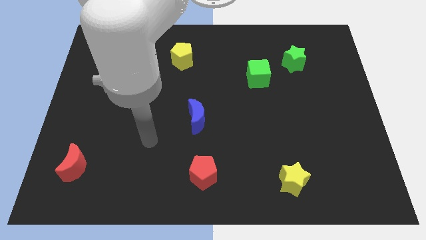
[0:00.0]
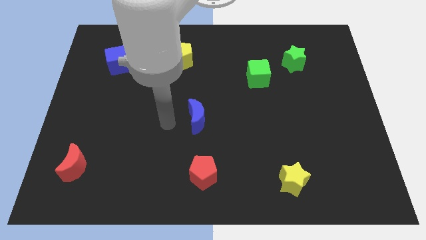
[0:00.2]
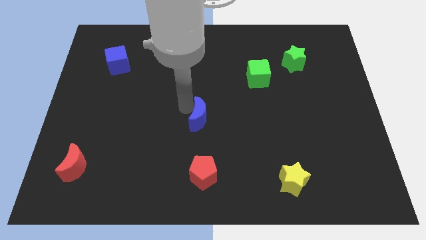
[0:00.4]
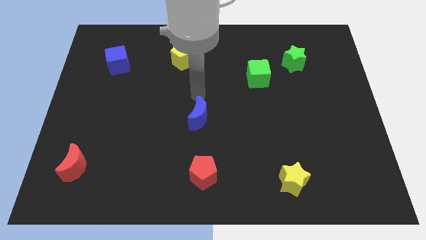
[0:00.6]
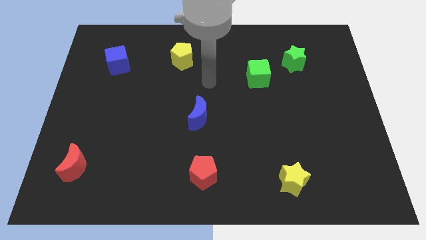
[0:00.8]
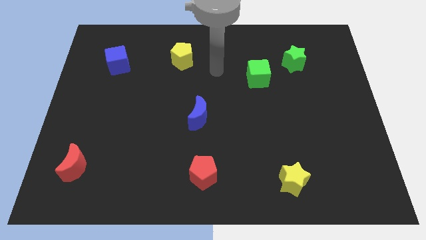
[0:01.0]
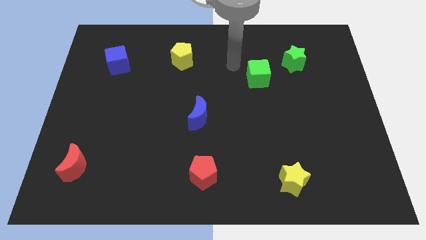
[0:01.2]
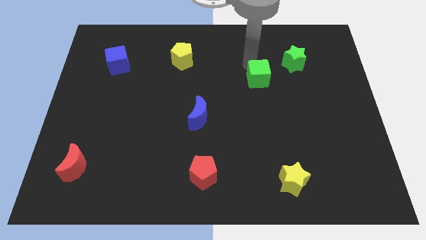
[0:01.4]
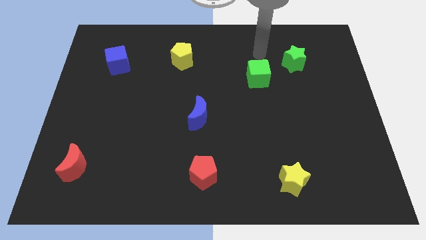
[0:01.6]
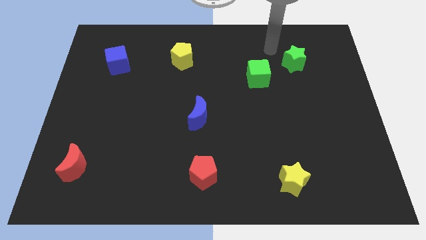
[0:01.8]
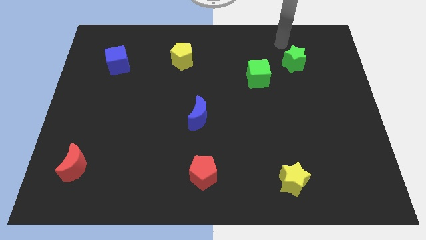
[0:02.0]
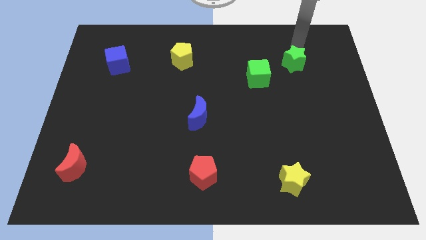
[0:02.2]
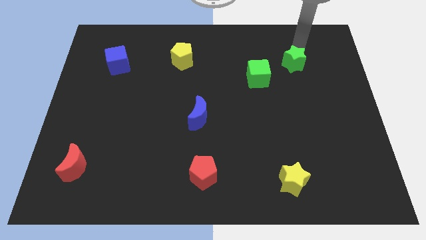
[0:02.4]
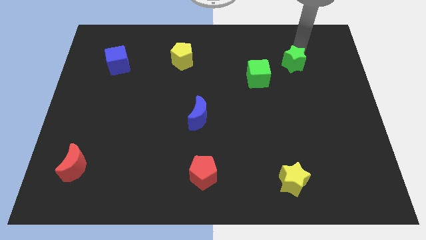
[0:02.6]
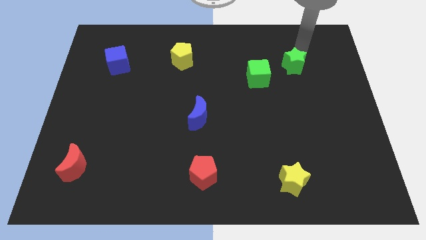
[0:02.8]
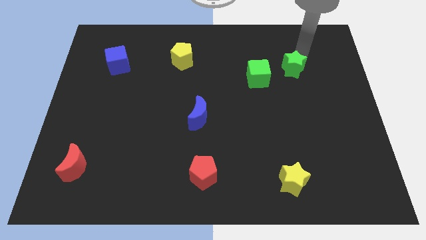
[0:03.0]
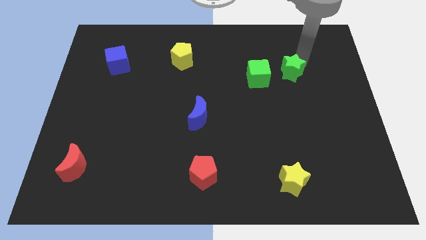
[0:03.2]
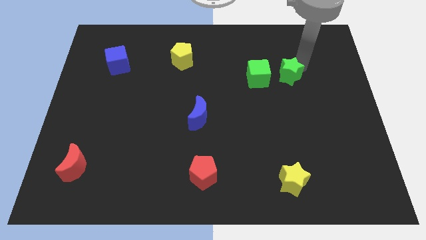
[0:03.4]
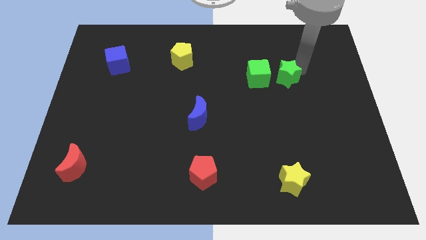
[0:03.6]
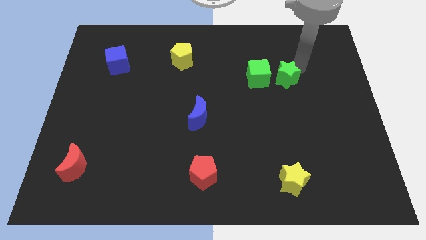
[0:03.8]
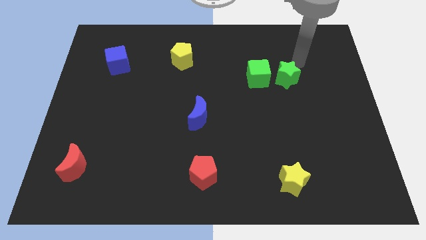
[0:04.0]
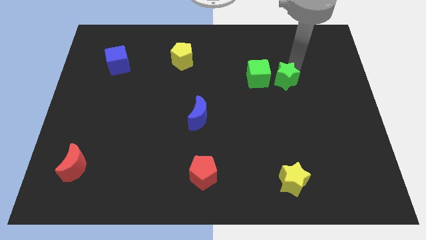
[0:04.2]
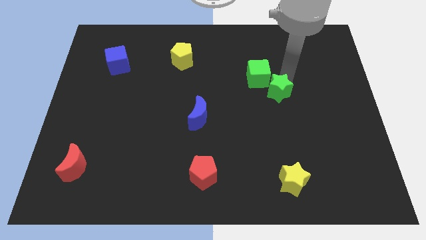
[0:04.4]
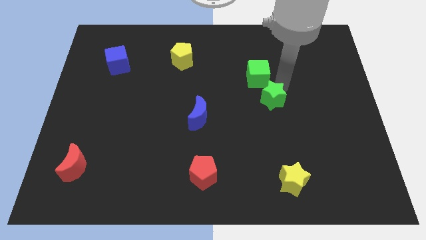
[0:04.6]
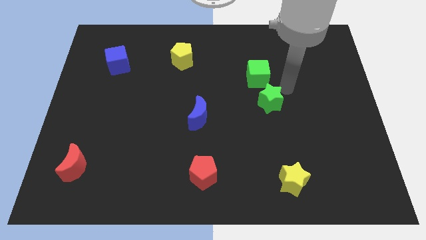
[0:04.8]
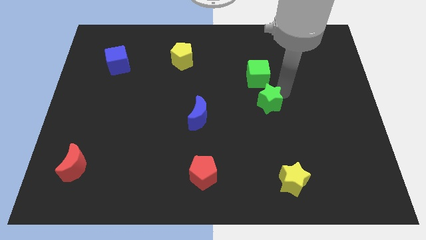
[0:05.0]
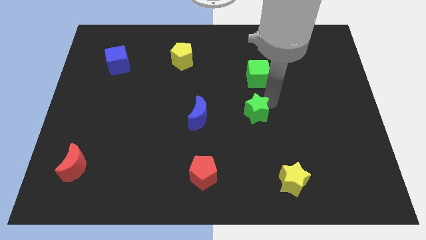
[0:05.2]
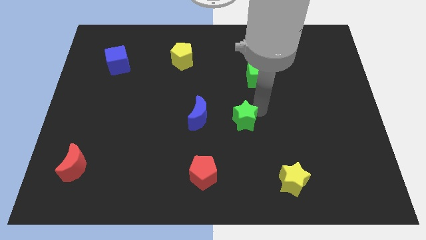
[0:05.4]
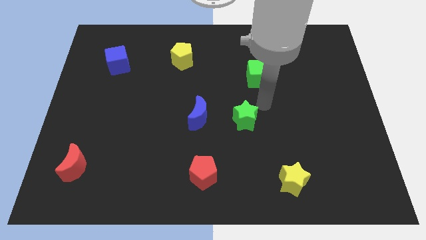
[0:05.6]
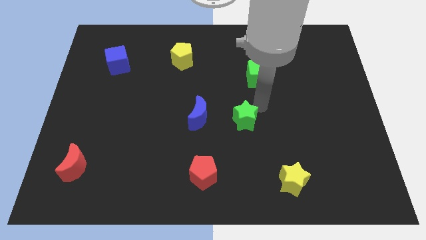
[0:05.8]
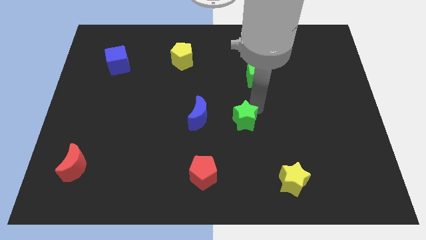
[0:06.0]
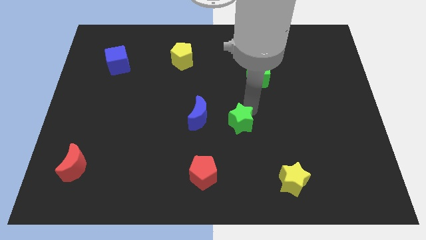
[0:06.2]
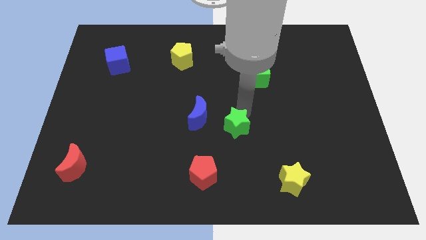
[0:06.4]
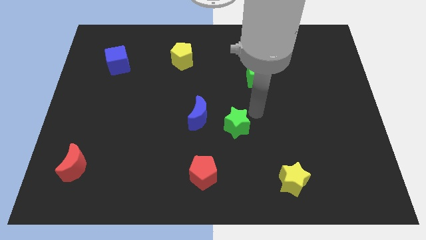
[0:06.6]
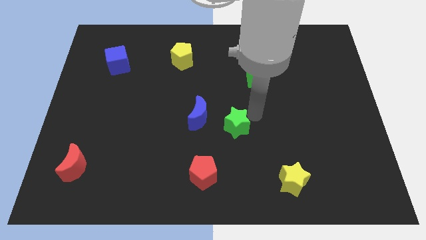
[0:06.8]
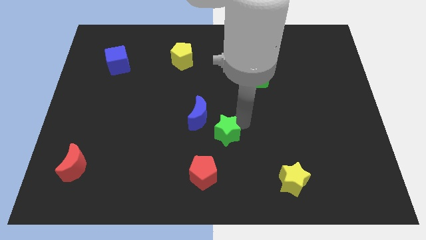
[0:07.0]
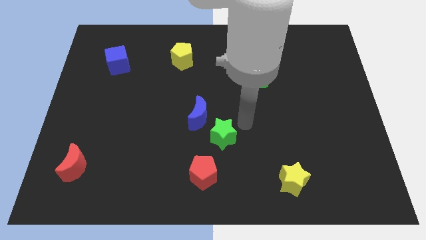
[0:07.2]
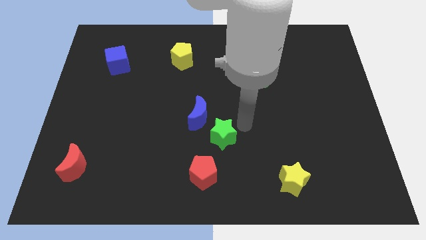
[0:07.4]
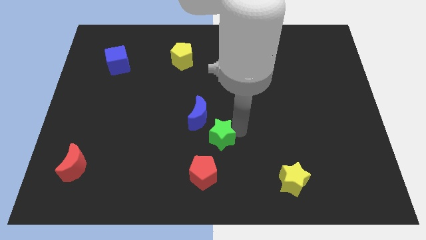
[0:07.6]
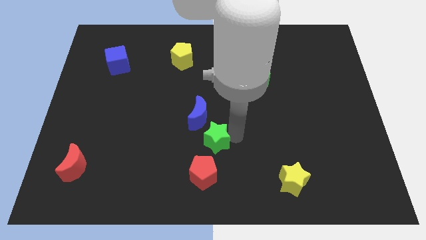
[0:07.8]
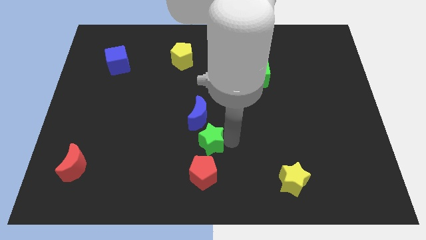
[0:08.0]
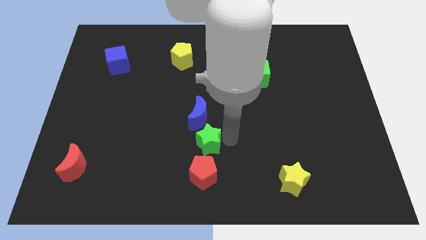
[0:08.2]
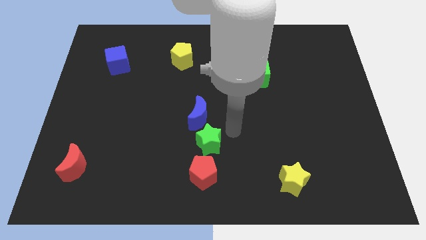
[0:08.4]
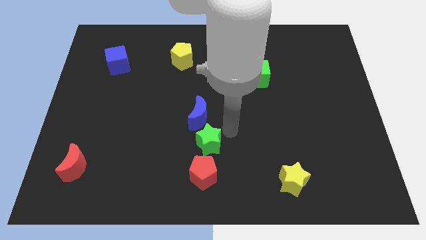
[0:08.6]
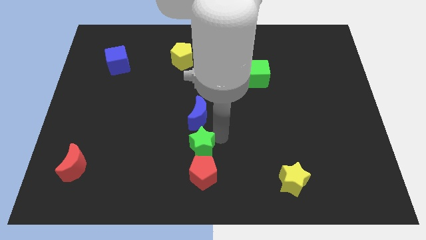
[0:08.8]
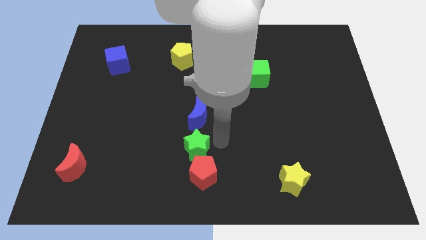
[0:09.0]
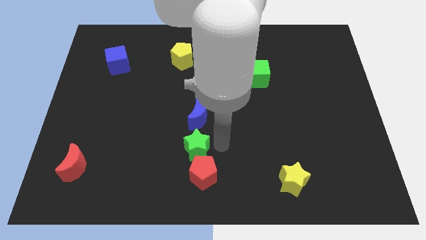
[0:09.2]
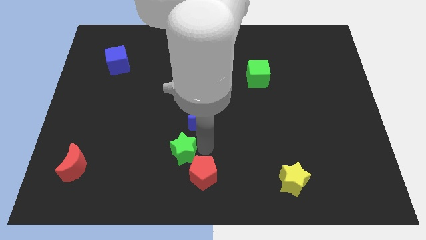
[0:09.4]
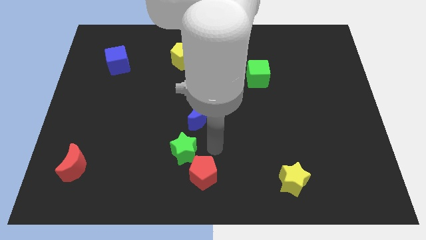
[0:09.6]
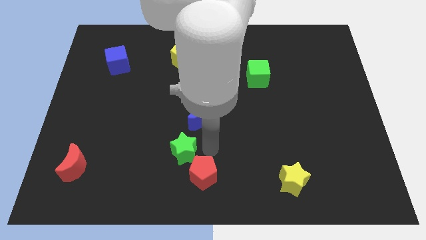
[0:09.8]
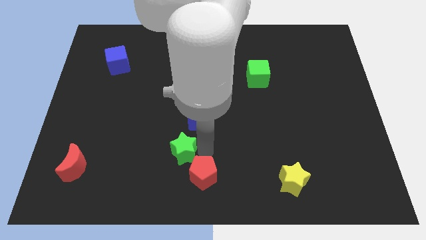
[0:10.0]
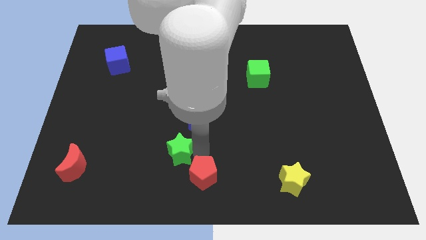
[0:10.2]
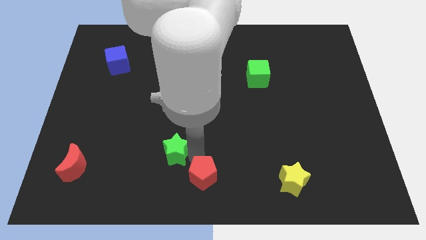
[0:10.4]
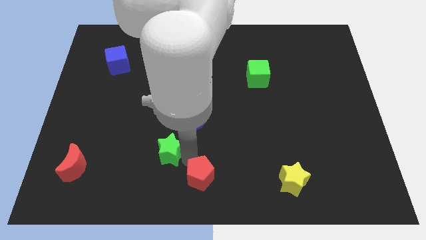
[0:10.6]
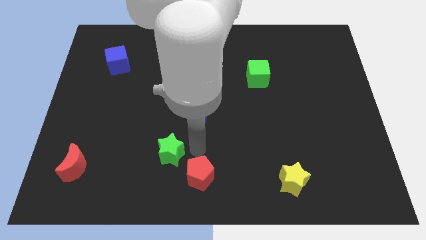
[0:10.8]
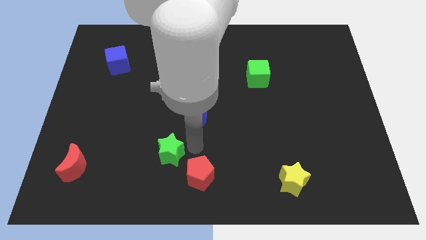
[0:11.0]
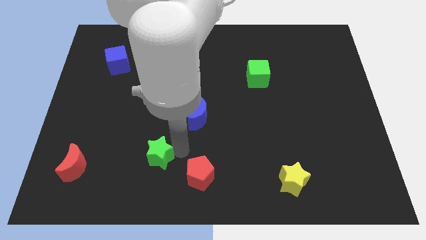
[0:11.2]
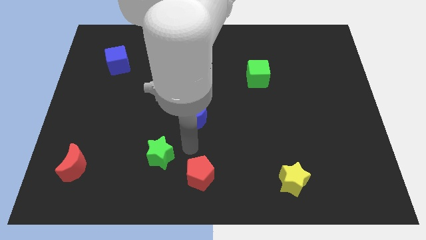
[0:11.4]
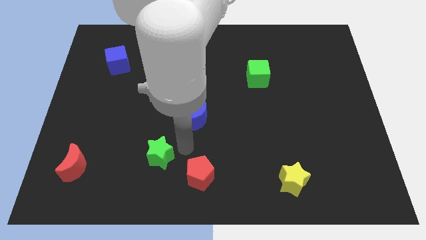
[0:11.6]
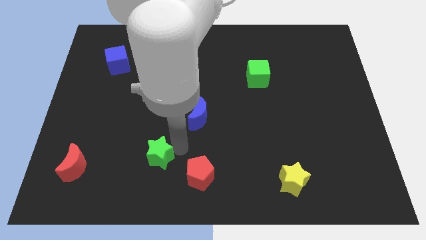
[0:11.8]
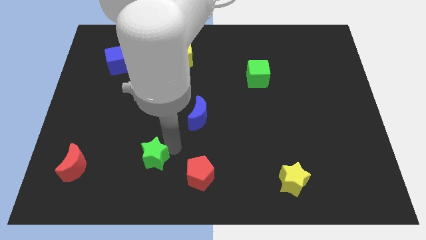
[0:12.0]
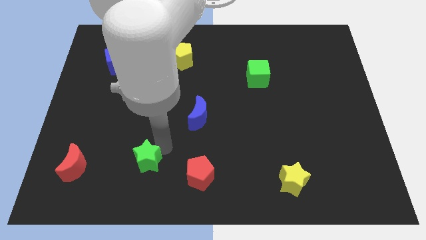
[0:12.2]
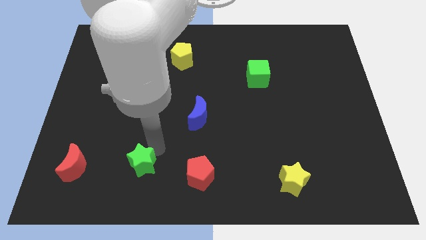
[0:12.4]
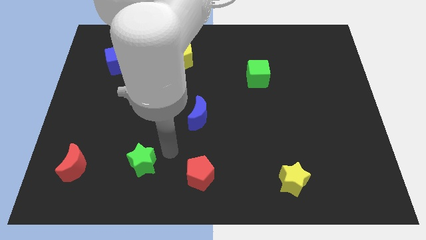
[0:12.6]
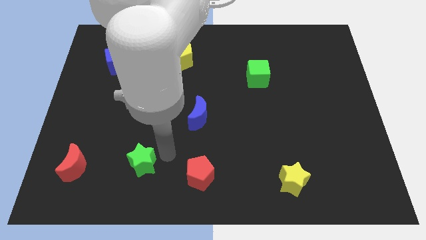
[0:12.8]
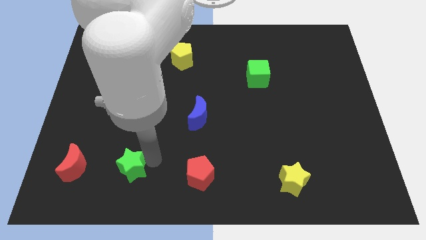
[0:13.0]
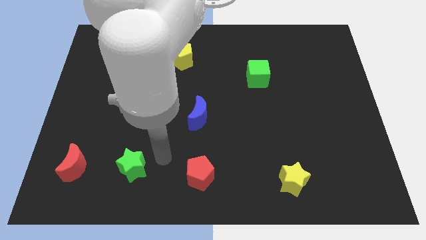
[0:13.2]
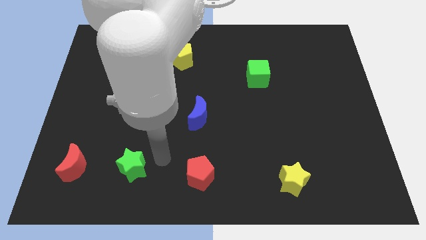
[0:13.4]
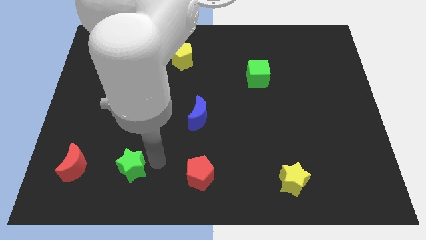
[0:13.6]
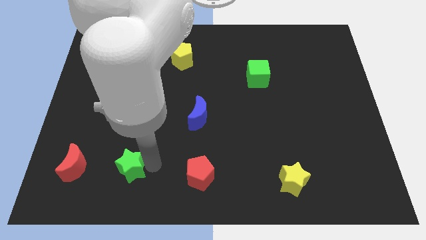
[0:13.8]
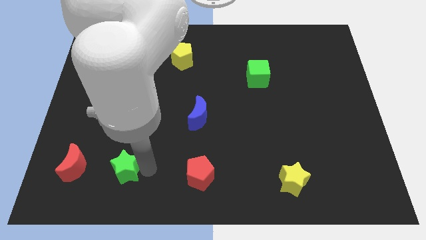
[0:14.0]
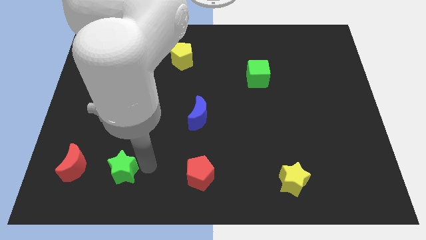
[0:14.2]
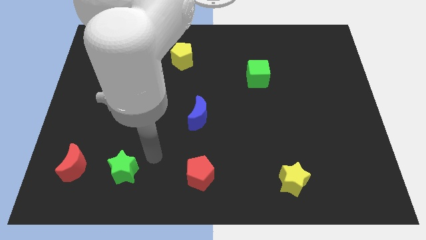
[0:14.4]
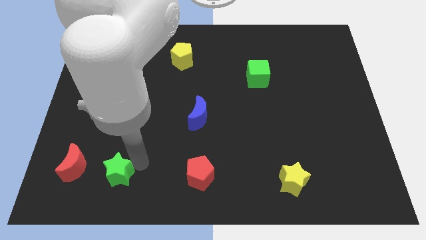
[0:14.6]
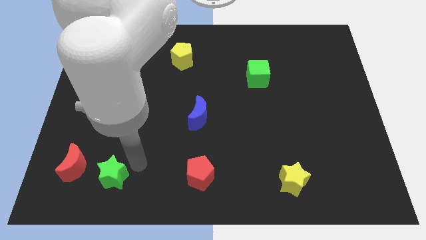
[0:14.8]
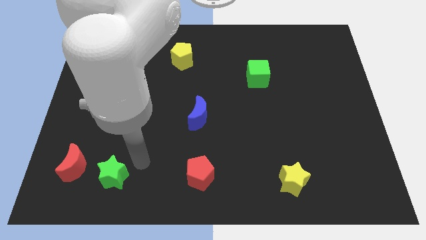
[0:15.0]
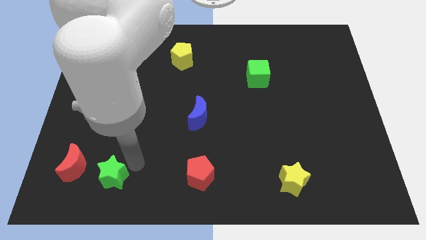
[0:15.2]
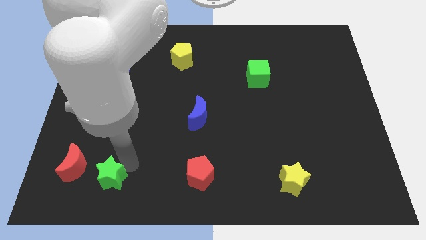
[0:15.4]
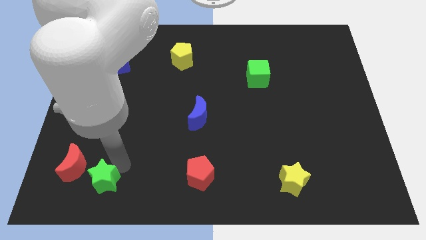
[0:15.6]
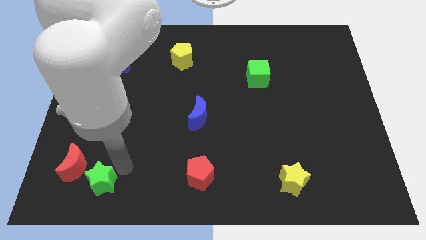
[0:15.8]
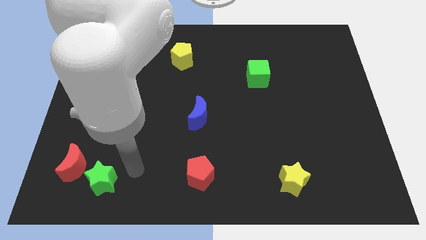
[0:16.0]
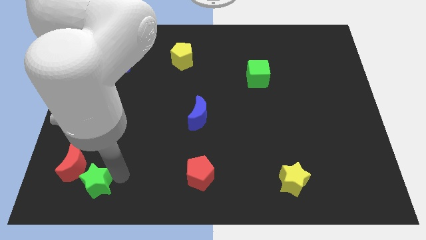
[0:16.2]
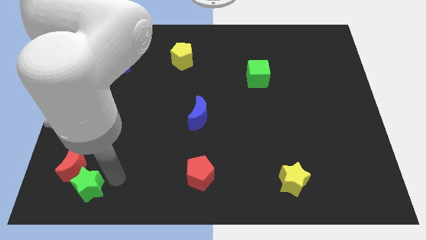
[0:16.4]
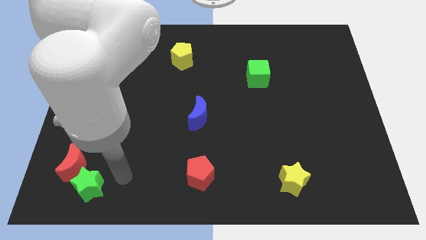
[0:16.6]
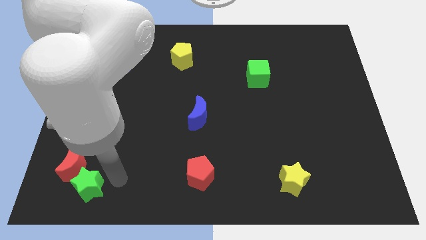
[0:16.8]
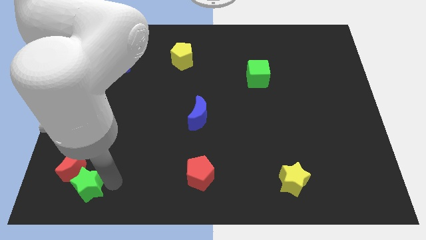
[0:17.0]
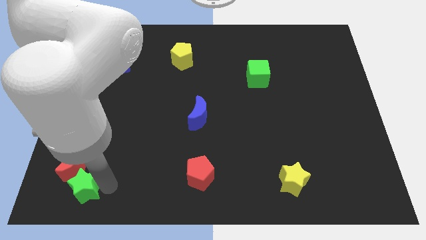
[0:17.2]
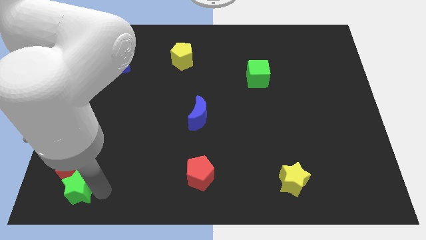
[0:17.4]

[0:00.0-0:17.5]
move the green star to the lower left corner
